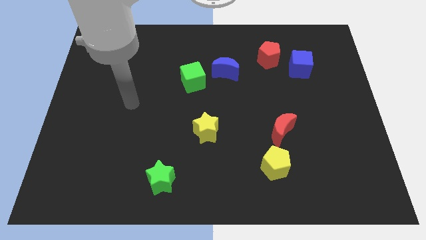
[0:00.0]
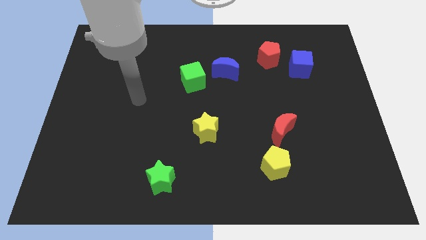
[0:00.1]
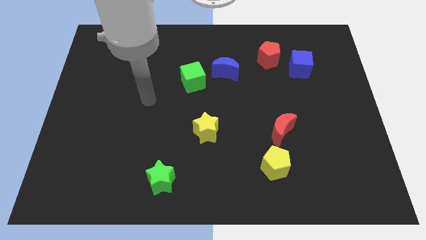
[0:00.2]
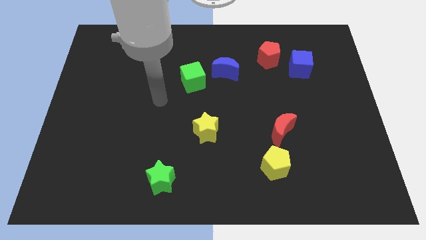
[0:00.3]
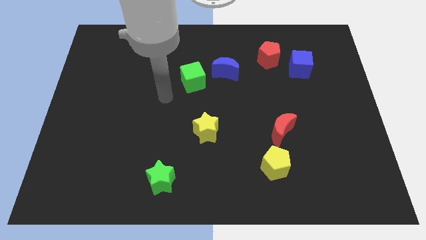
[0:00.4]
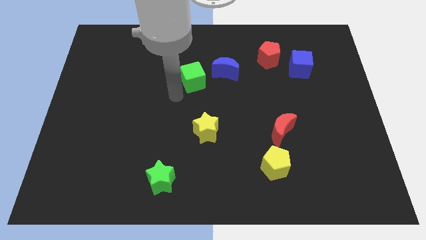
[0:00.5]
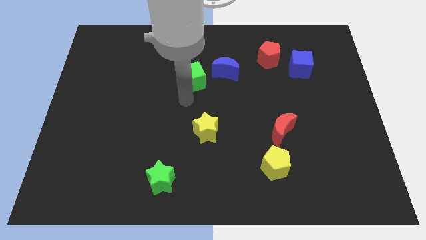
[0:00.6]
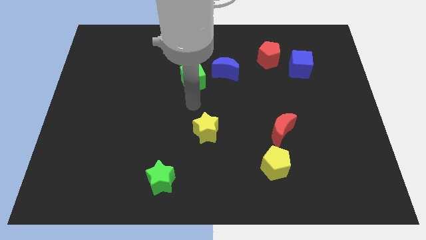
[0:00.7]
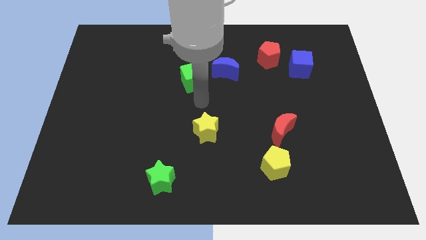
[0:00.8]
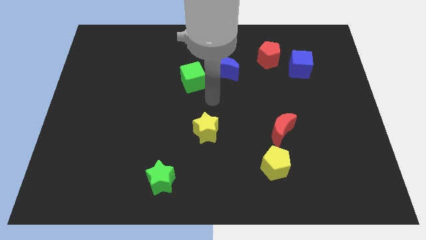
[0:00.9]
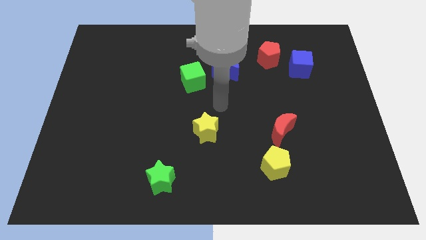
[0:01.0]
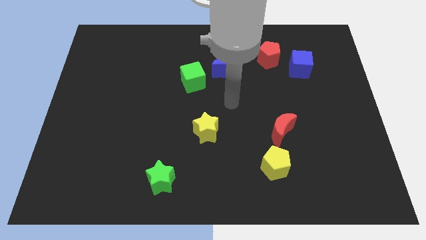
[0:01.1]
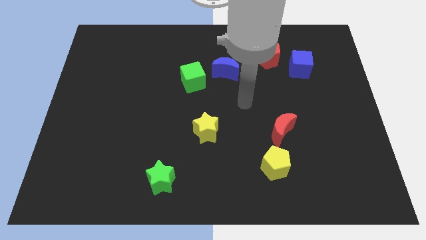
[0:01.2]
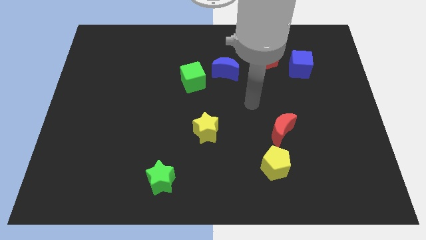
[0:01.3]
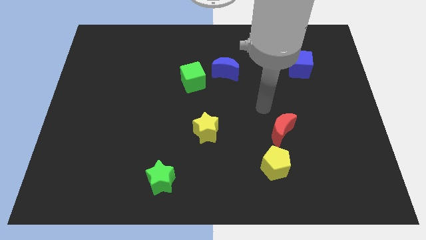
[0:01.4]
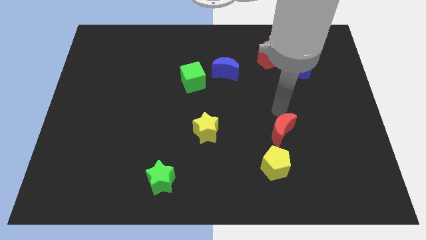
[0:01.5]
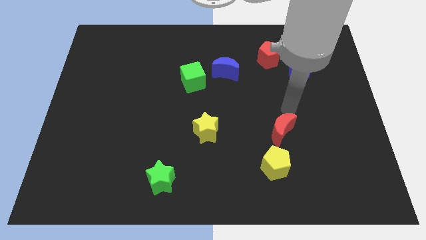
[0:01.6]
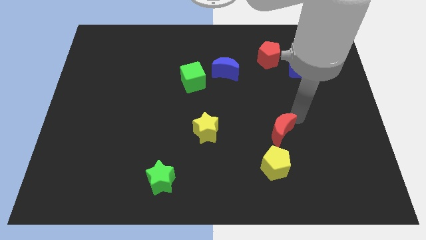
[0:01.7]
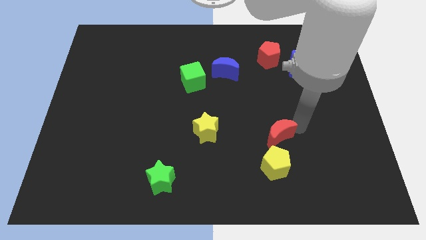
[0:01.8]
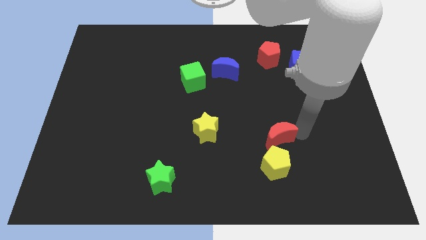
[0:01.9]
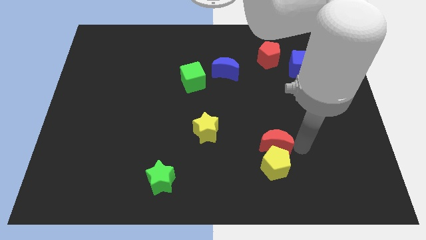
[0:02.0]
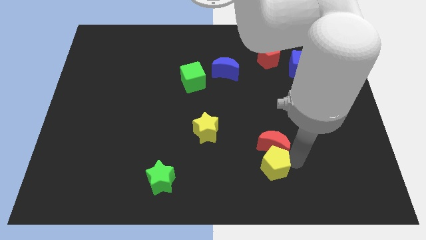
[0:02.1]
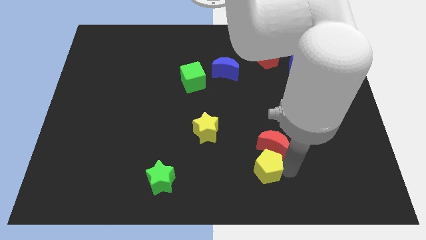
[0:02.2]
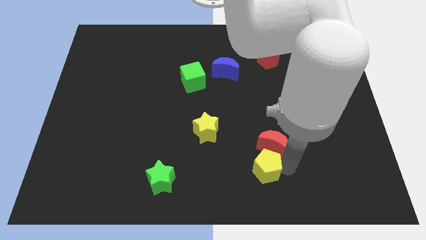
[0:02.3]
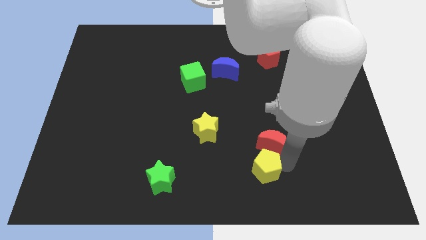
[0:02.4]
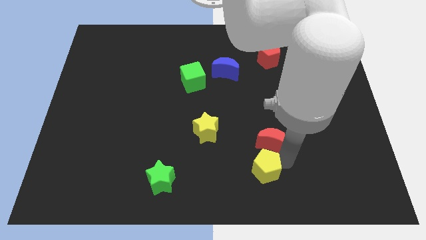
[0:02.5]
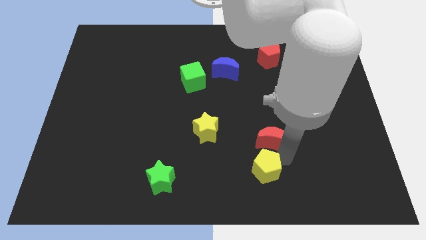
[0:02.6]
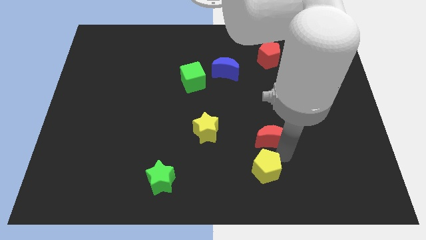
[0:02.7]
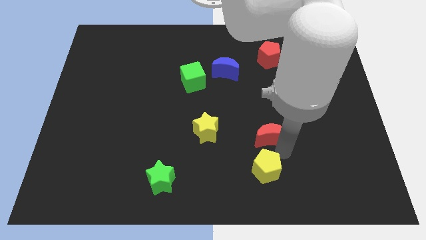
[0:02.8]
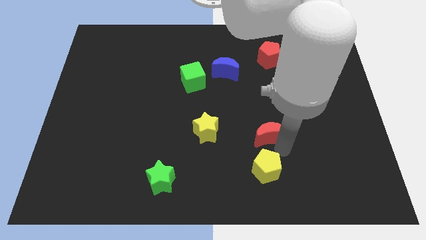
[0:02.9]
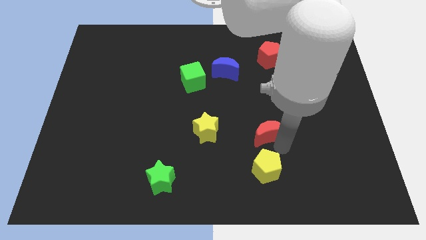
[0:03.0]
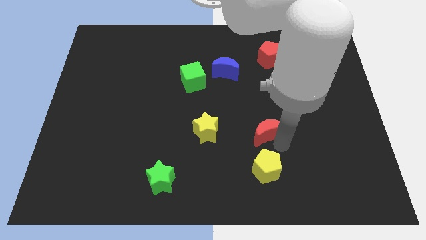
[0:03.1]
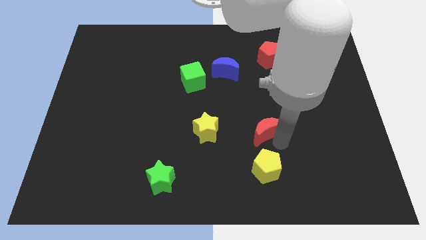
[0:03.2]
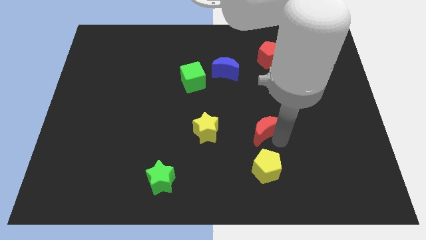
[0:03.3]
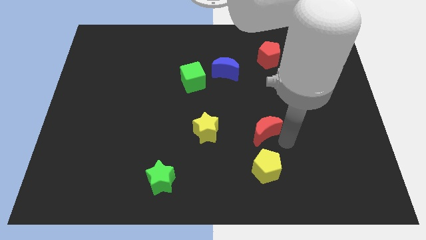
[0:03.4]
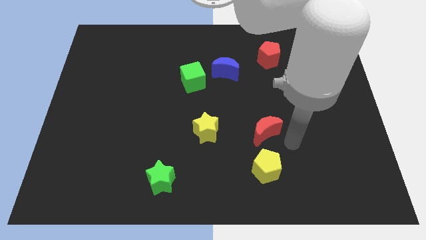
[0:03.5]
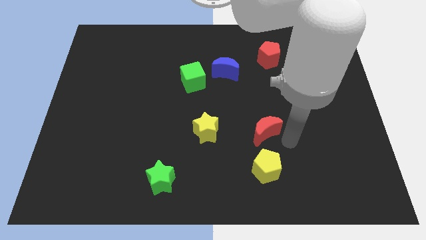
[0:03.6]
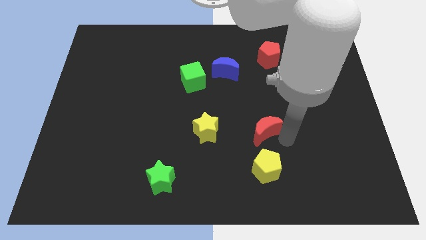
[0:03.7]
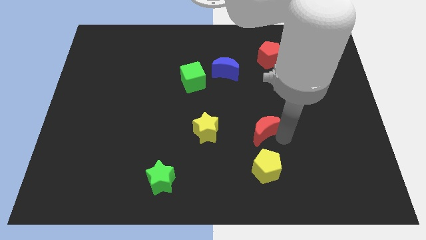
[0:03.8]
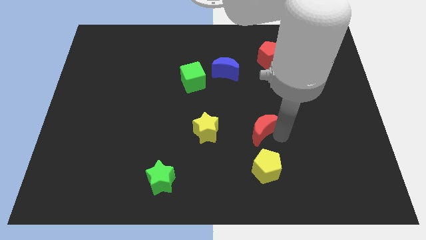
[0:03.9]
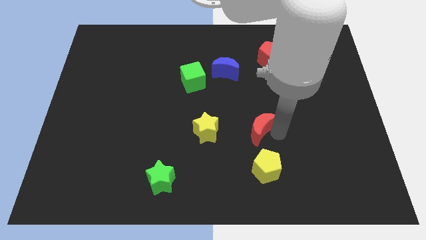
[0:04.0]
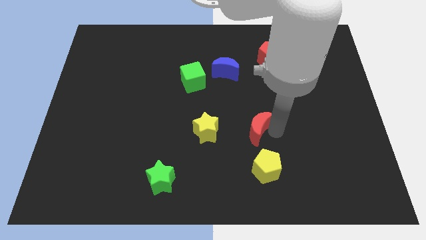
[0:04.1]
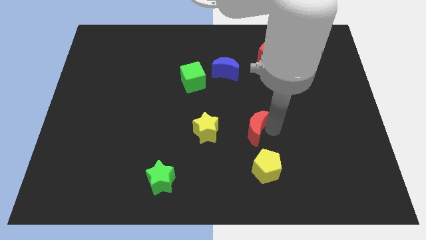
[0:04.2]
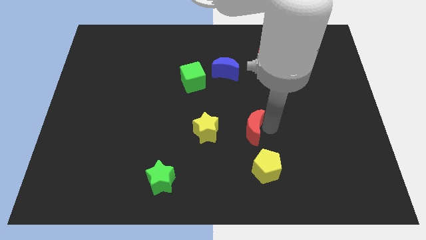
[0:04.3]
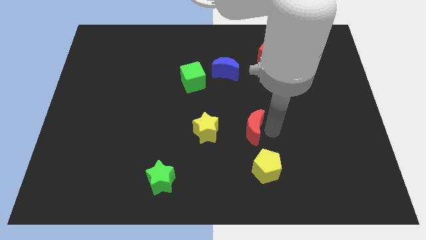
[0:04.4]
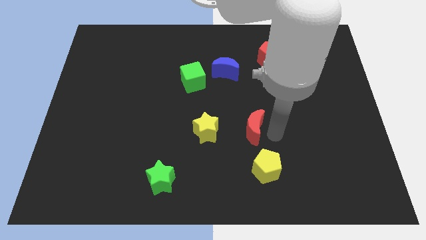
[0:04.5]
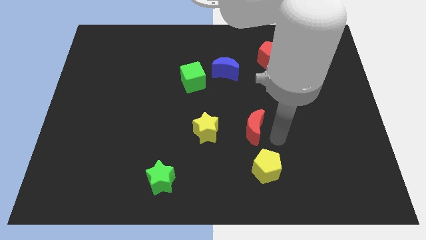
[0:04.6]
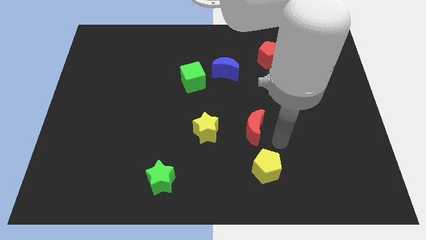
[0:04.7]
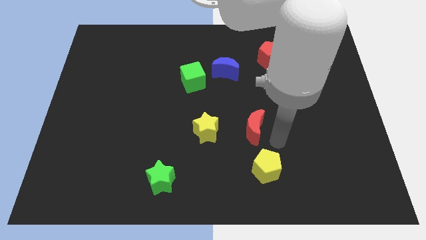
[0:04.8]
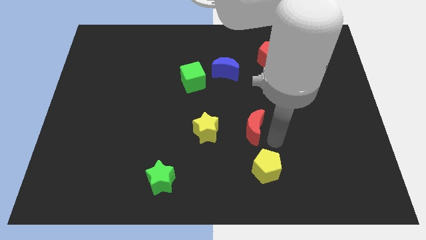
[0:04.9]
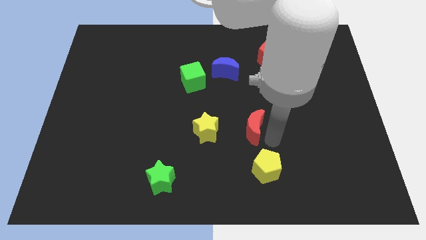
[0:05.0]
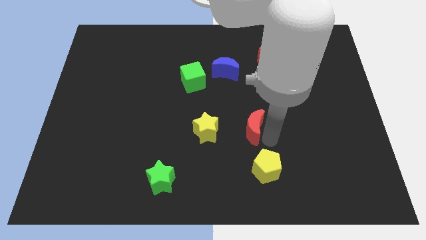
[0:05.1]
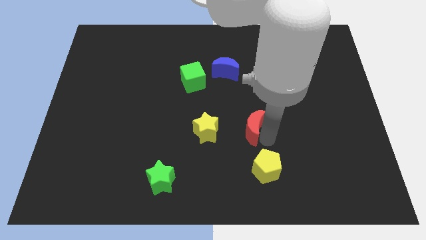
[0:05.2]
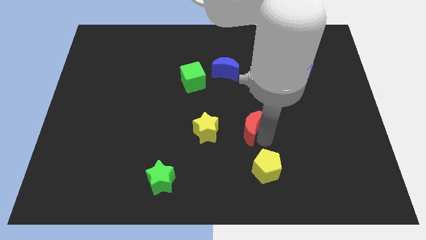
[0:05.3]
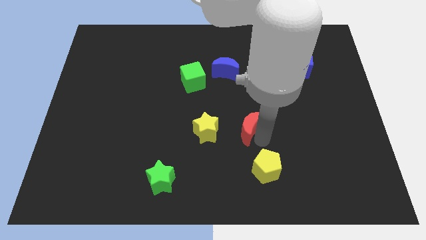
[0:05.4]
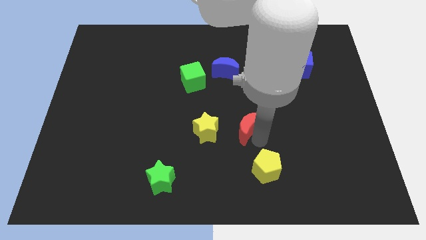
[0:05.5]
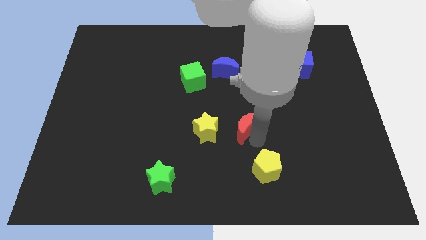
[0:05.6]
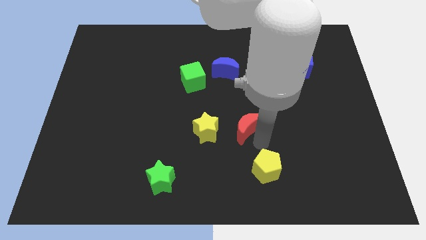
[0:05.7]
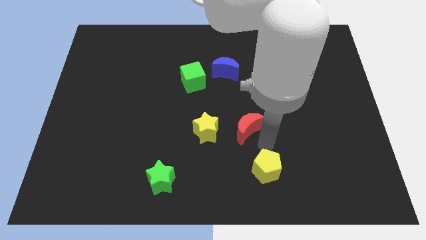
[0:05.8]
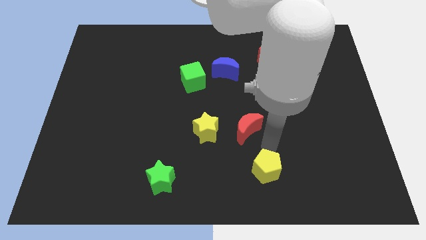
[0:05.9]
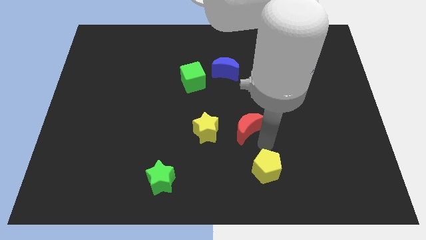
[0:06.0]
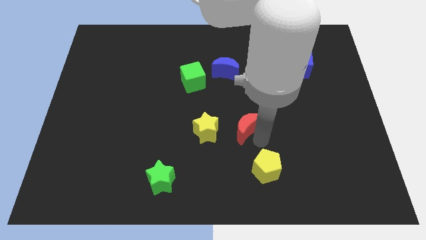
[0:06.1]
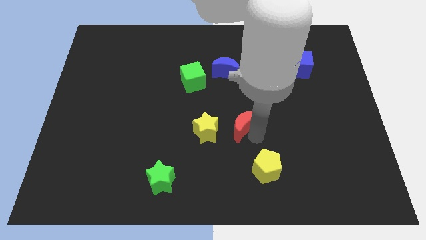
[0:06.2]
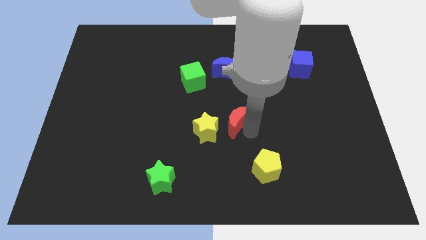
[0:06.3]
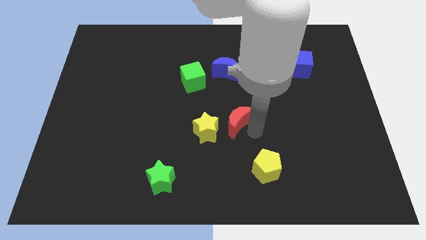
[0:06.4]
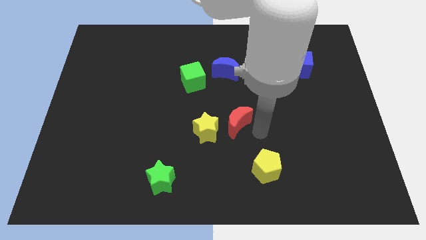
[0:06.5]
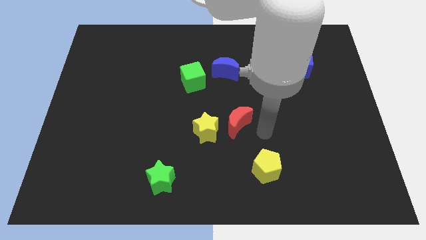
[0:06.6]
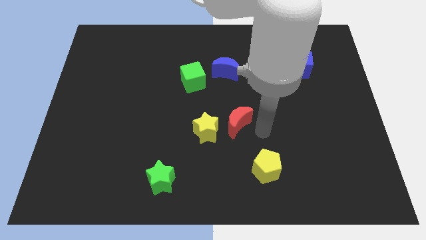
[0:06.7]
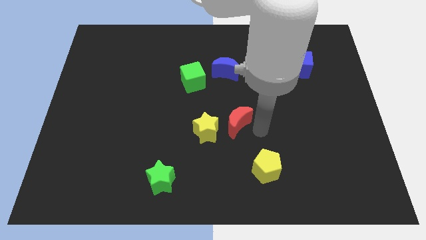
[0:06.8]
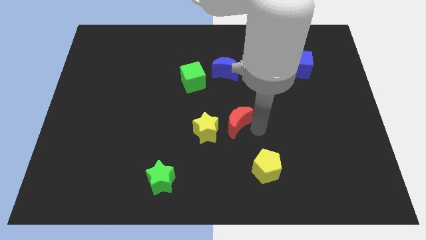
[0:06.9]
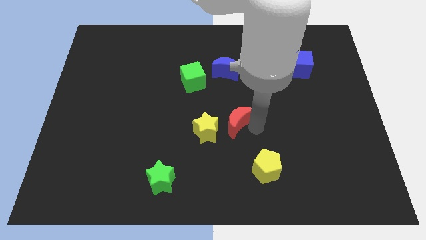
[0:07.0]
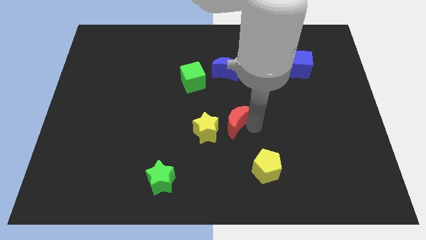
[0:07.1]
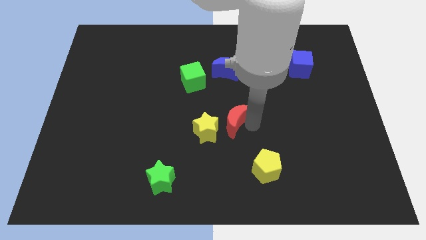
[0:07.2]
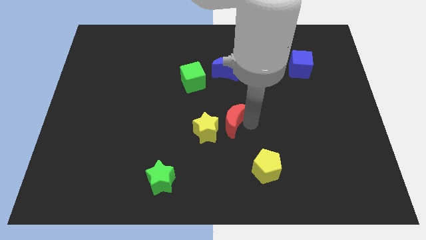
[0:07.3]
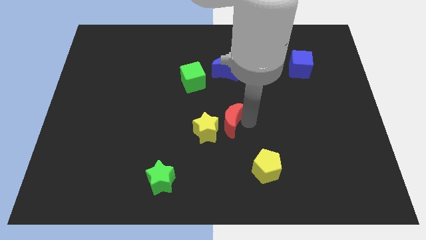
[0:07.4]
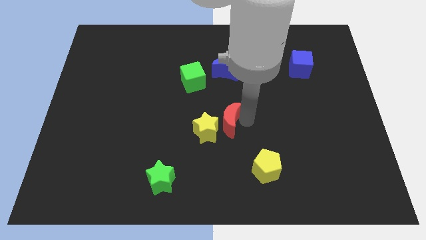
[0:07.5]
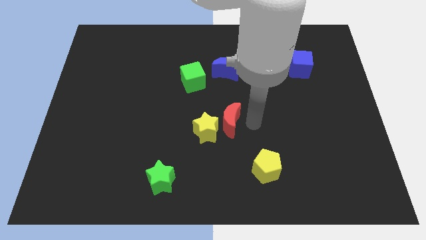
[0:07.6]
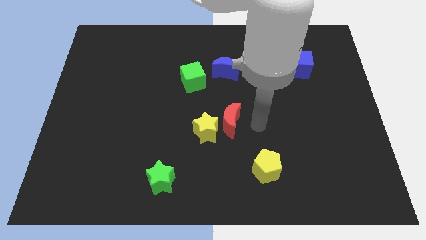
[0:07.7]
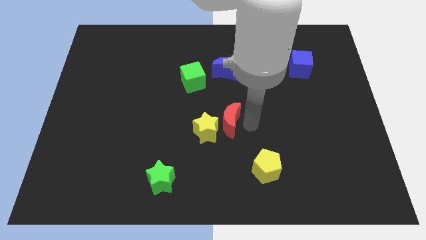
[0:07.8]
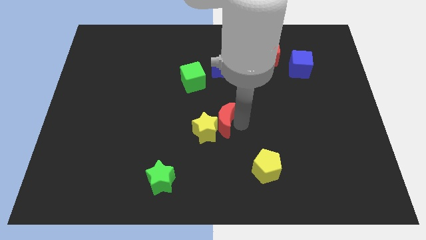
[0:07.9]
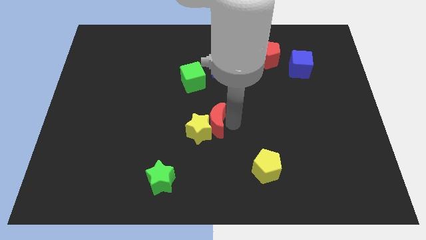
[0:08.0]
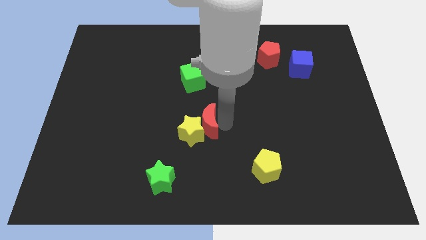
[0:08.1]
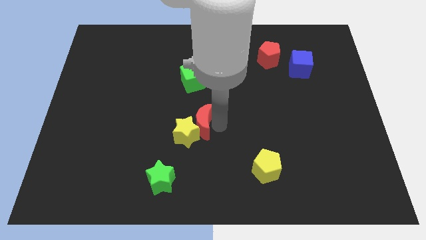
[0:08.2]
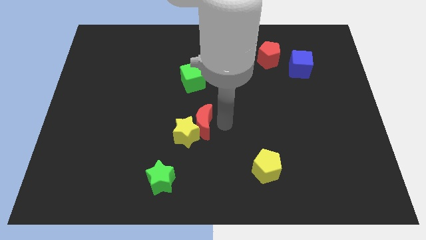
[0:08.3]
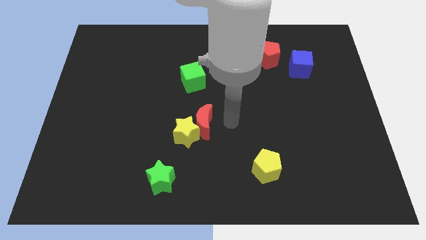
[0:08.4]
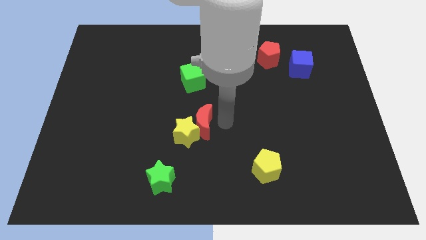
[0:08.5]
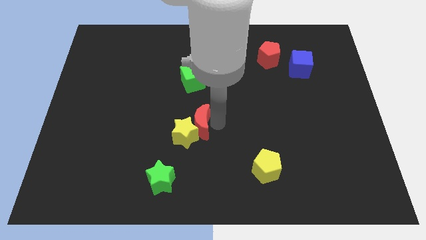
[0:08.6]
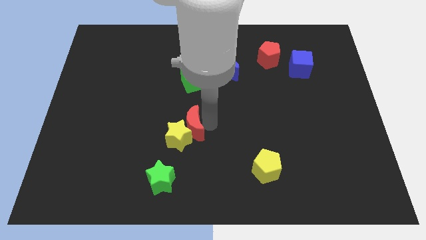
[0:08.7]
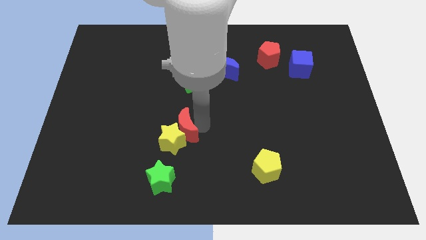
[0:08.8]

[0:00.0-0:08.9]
push the red moon to the left
